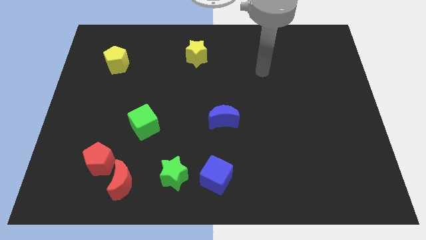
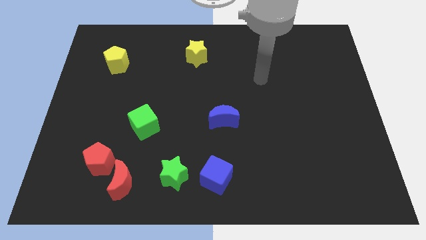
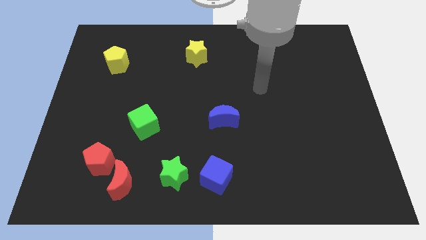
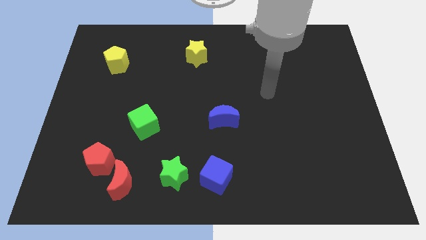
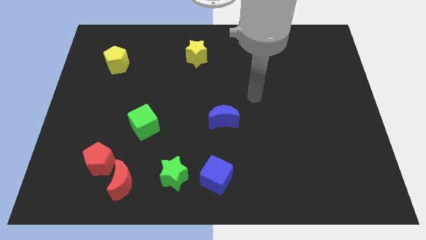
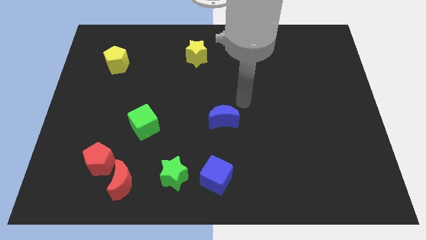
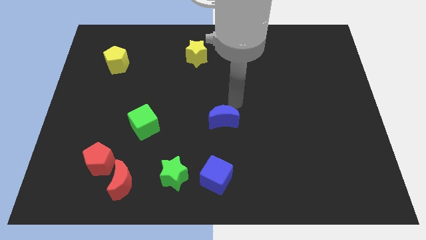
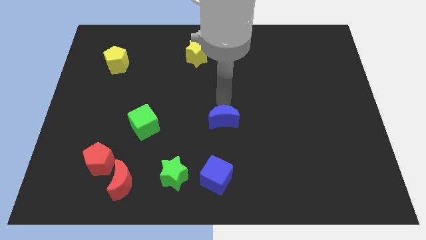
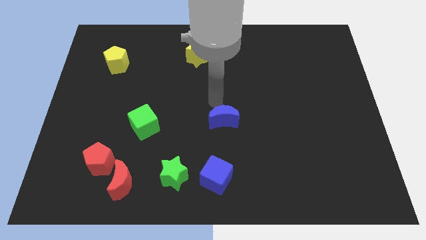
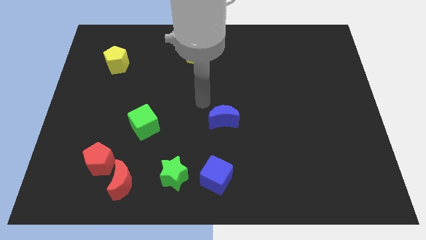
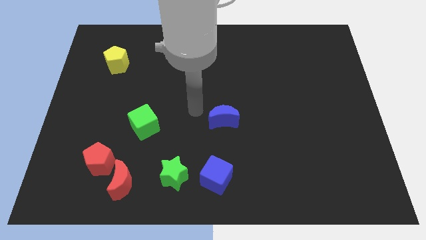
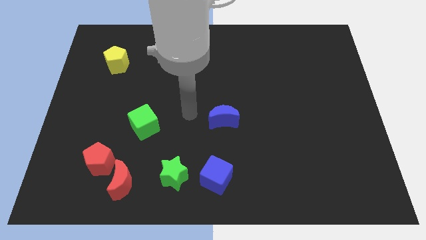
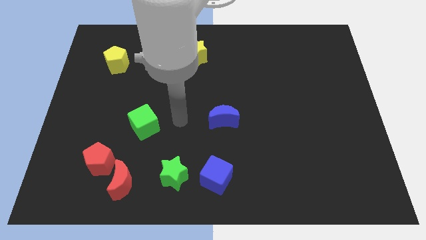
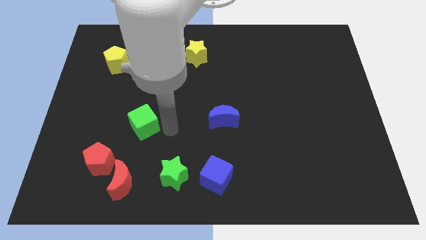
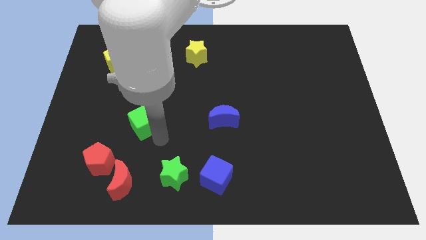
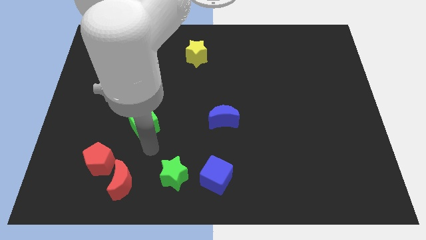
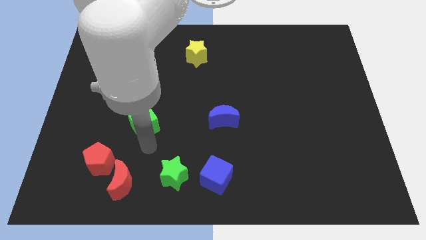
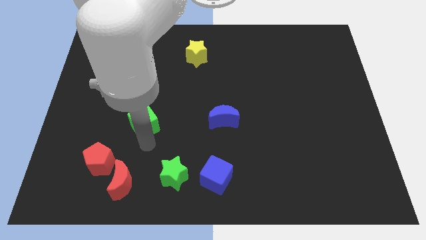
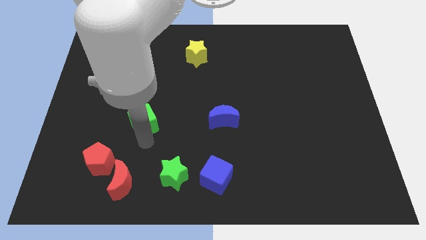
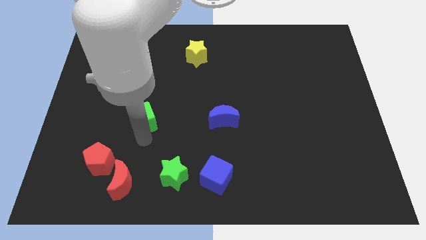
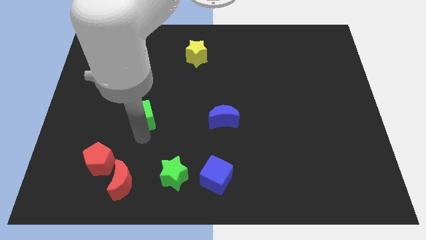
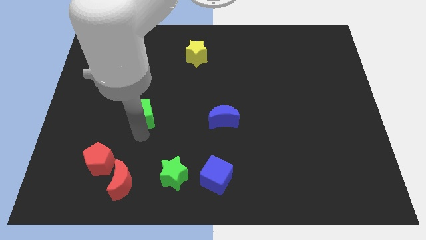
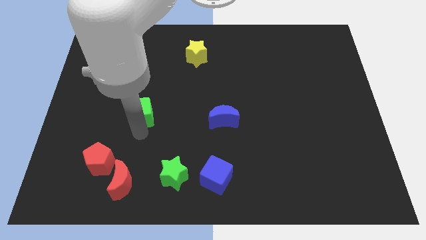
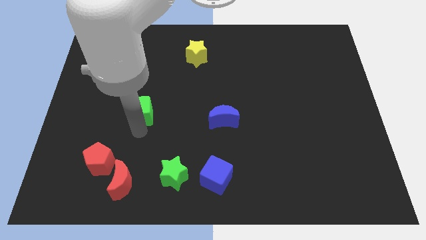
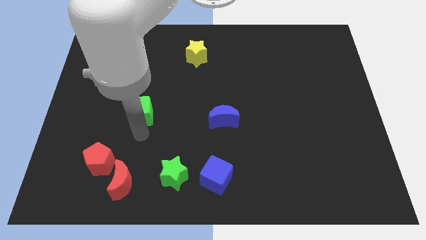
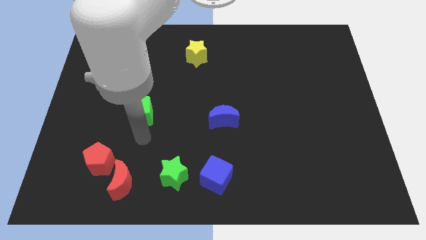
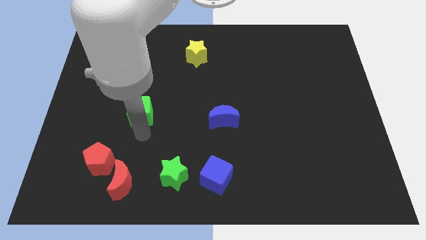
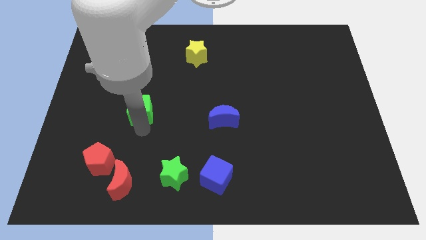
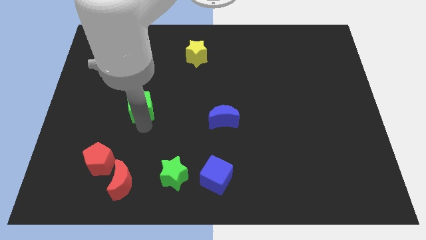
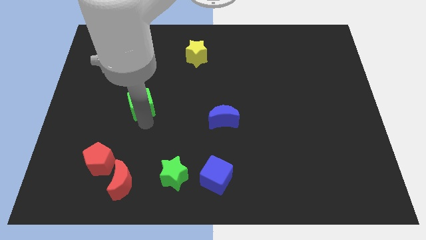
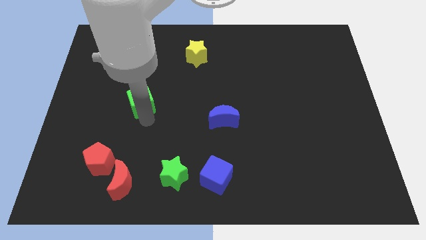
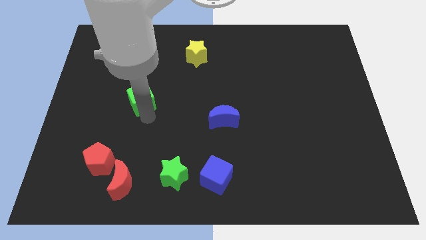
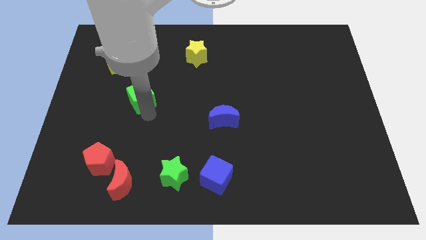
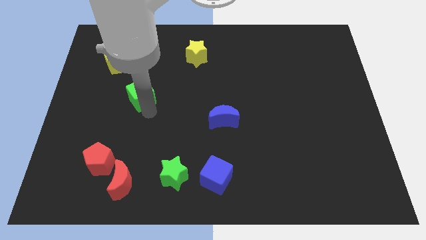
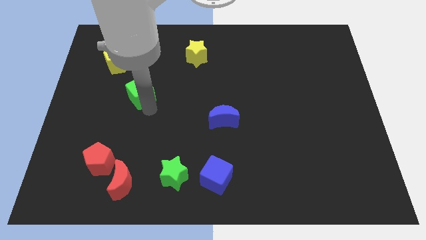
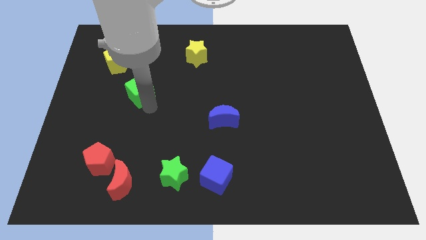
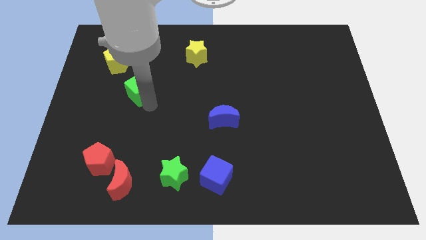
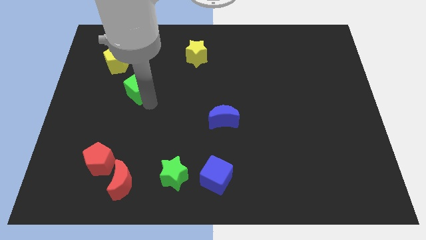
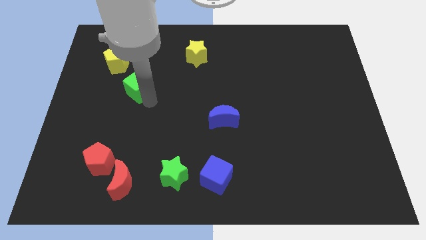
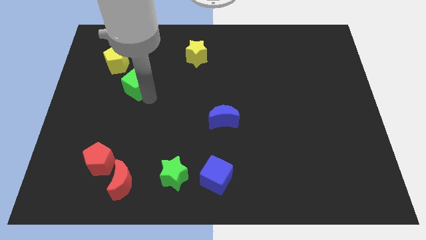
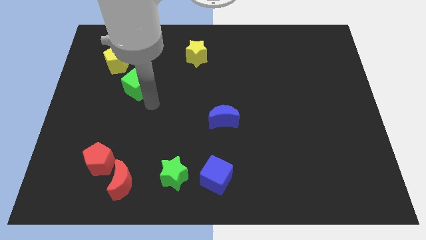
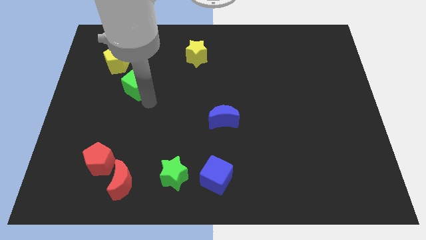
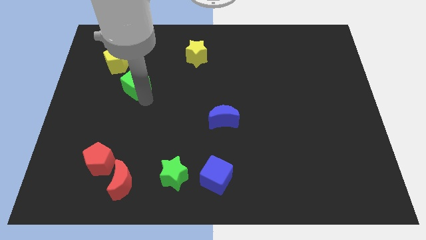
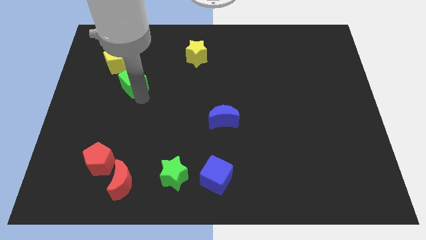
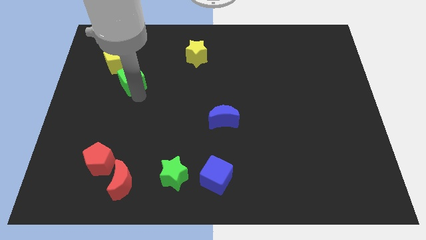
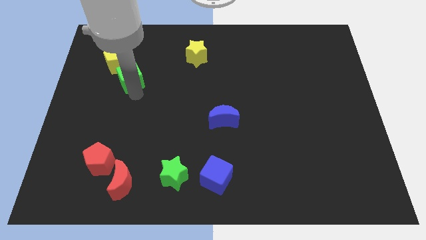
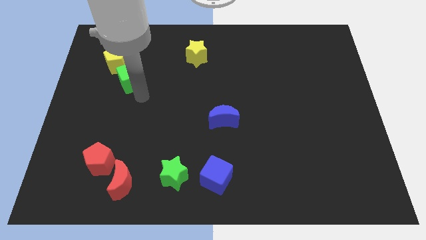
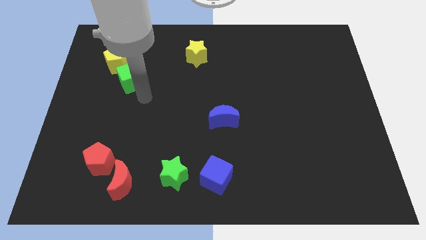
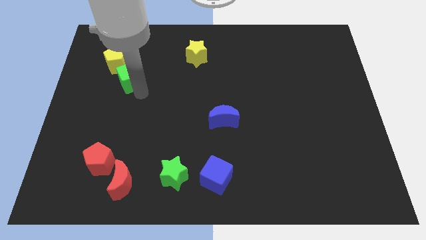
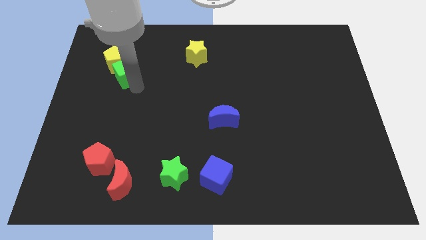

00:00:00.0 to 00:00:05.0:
put the green cube next to the yellow pentagon

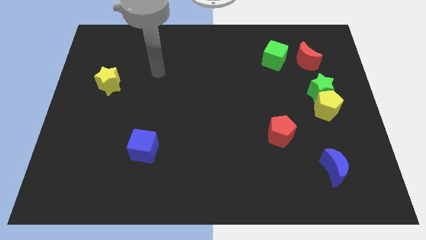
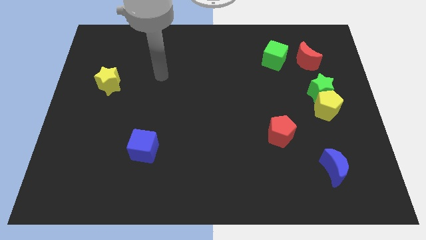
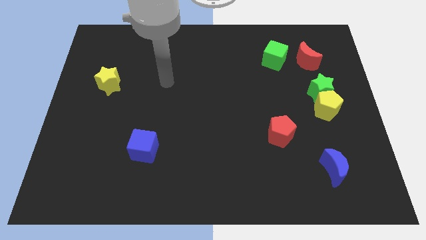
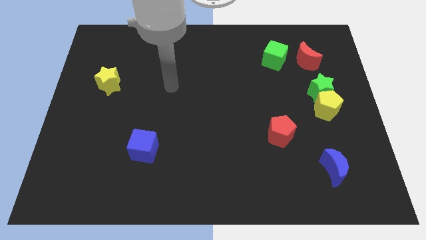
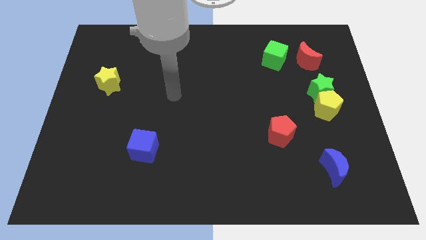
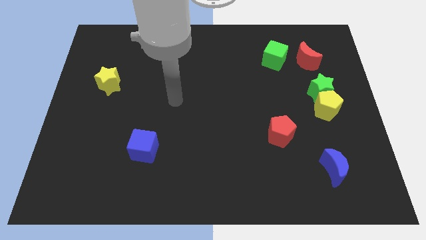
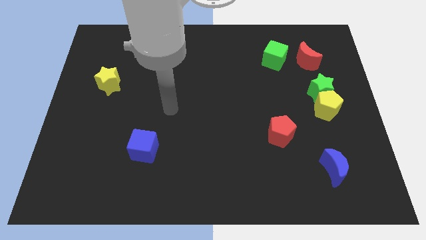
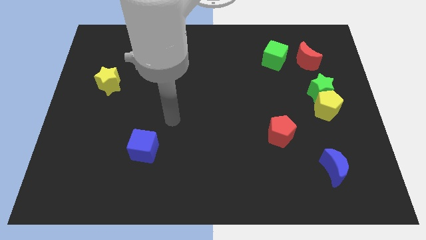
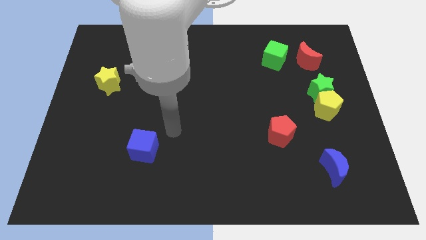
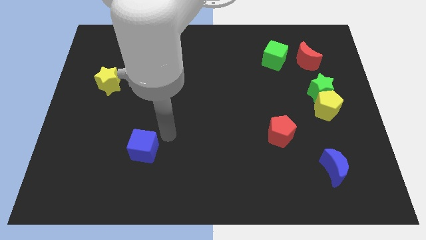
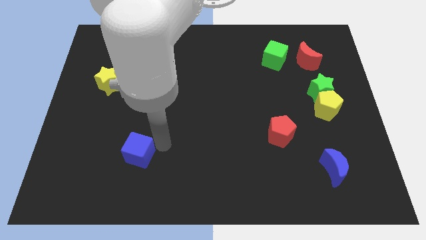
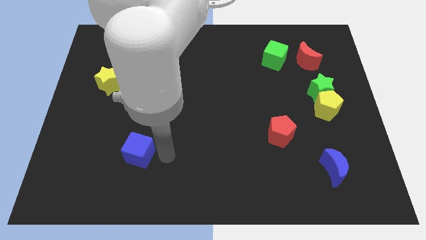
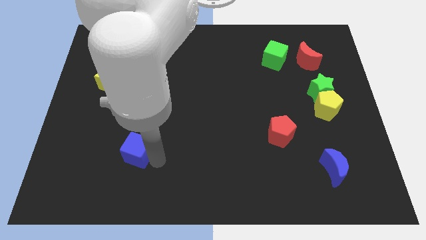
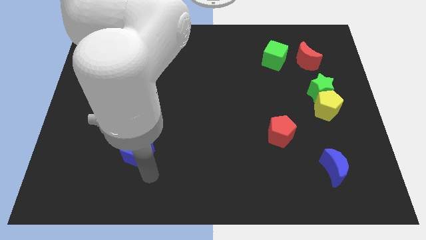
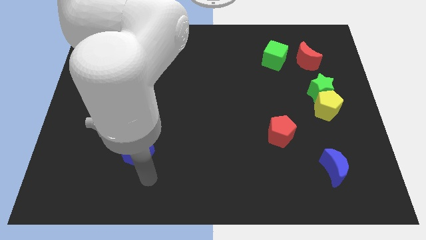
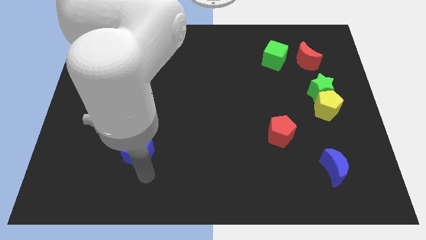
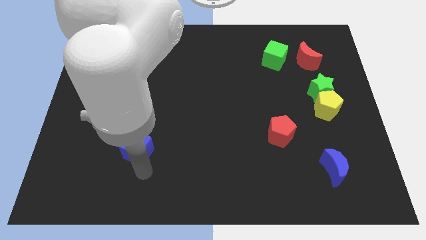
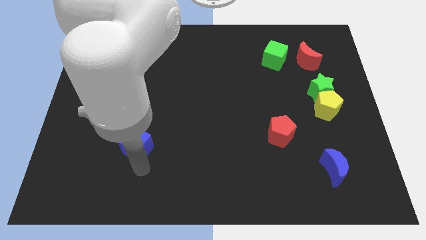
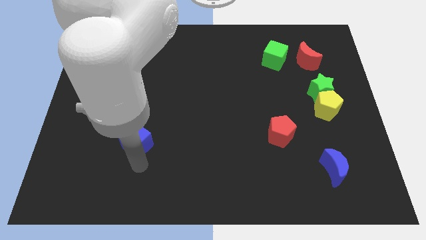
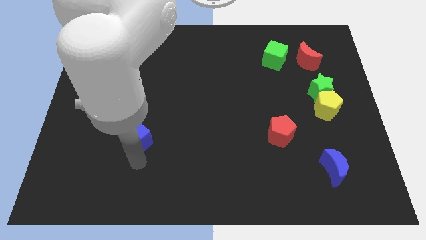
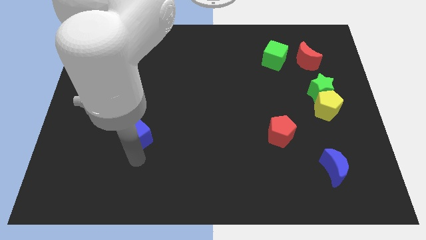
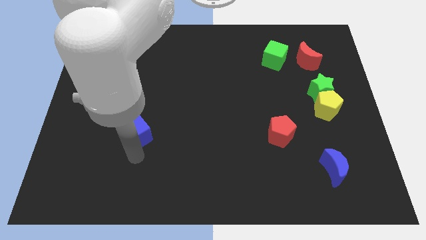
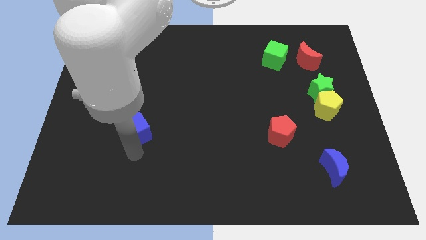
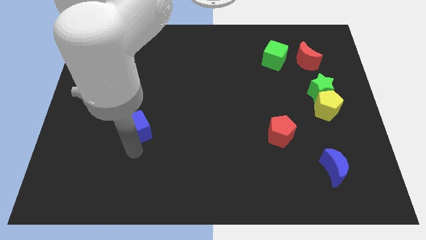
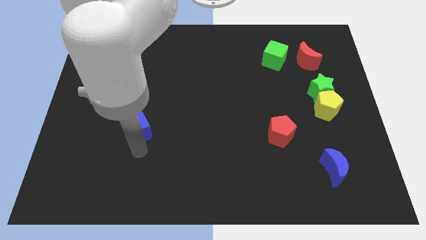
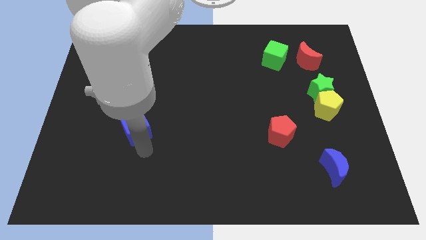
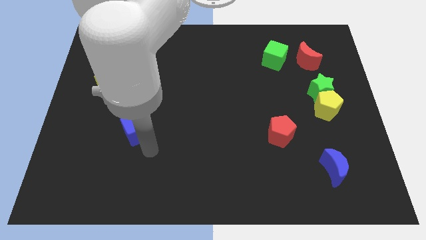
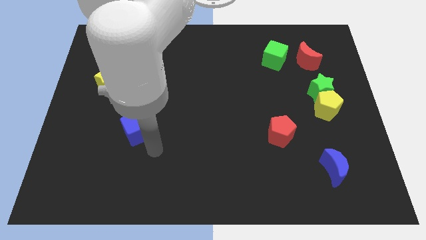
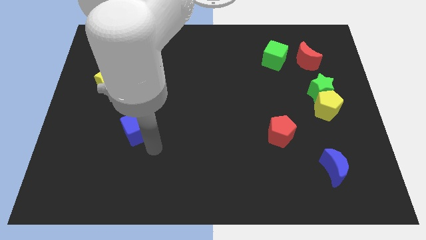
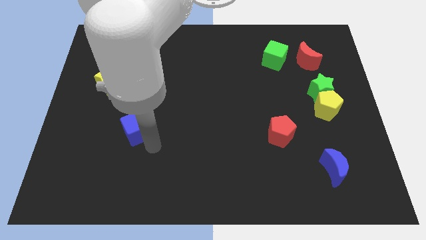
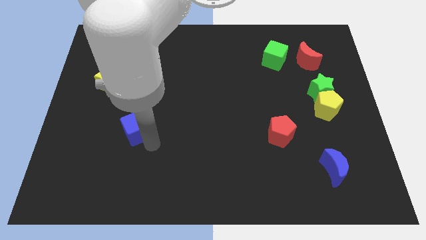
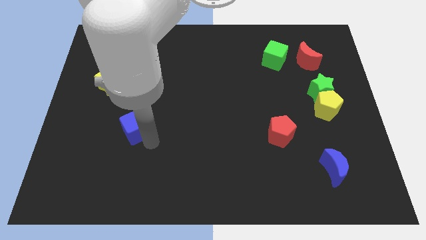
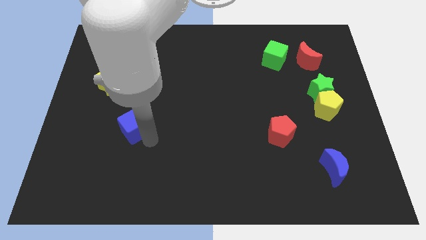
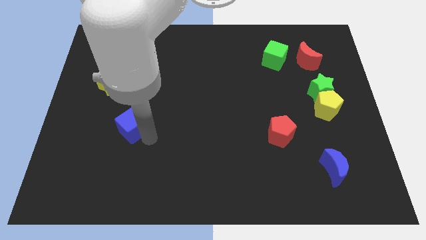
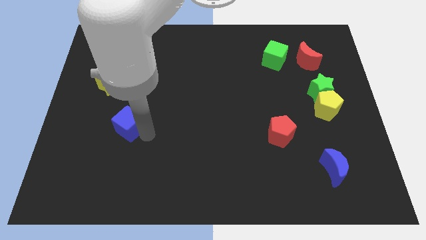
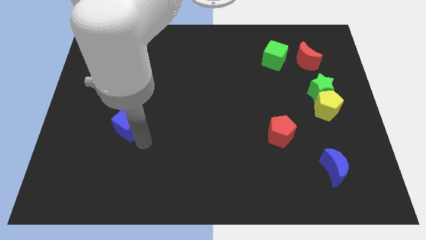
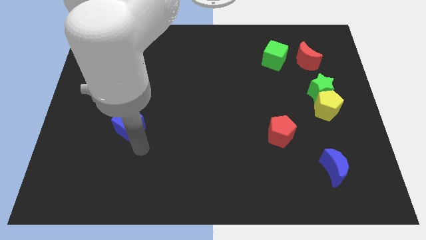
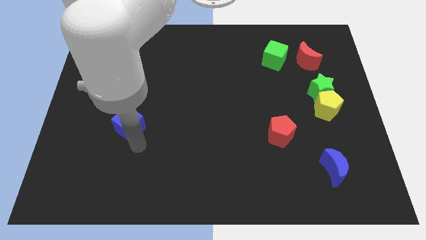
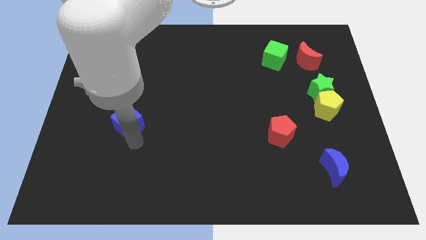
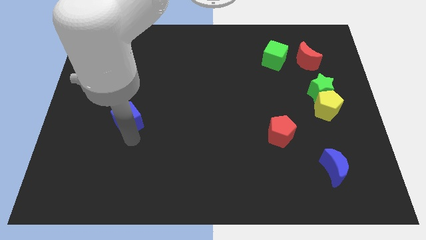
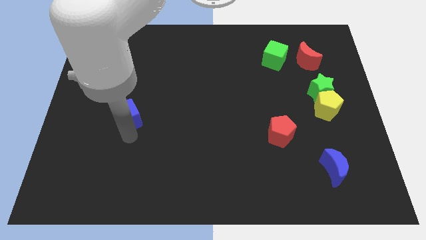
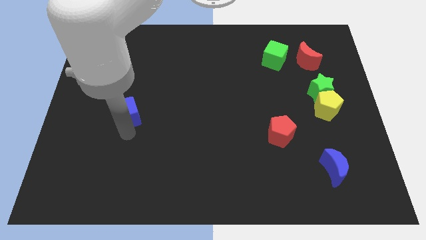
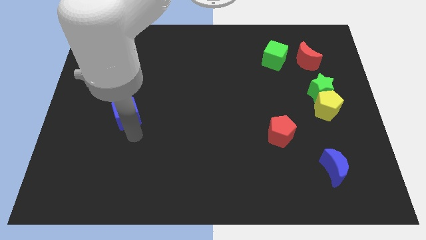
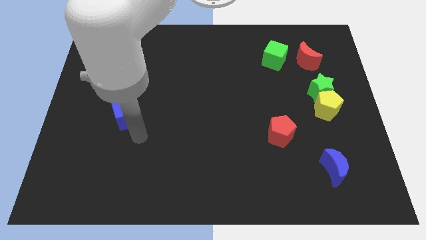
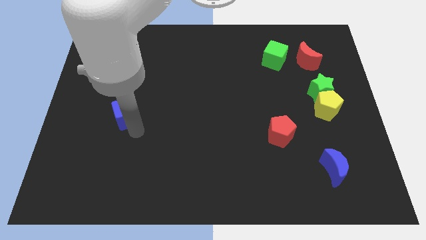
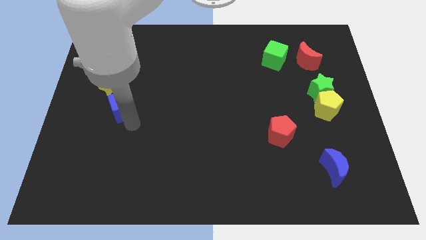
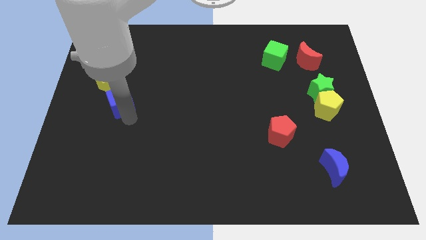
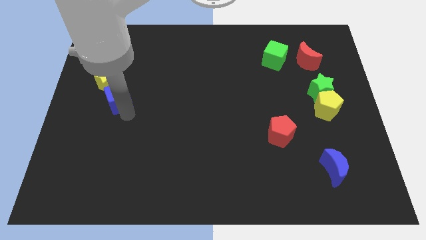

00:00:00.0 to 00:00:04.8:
put the blue cube next to the yellow star
